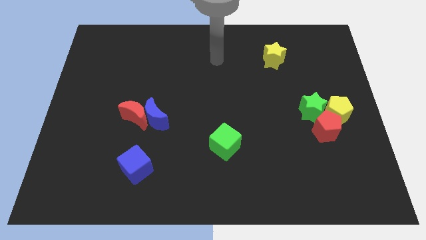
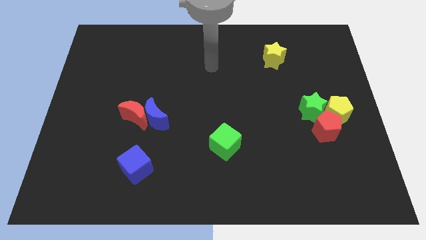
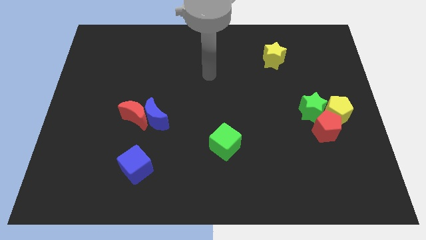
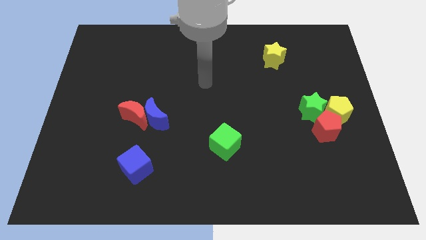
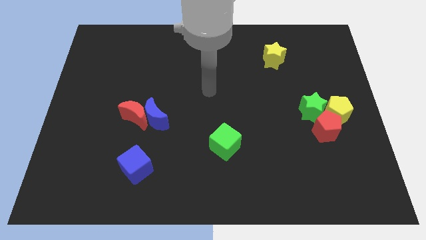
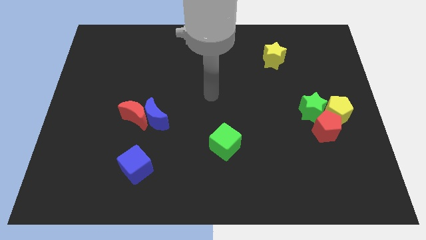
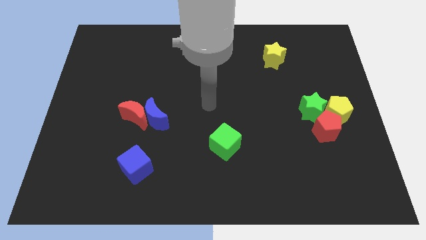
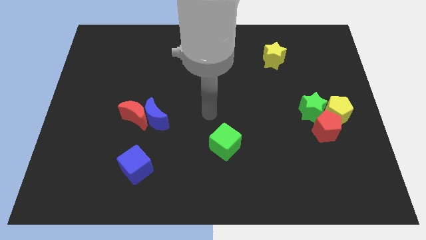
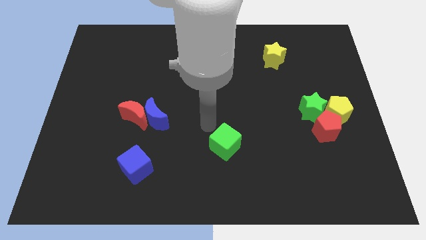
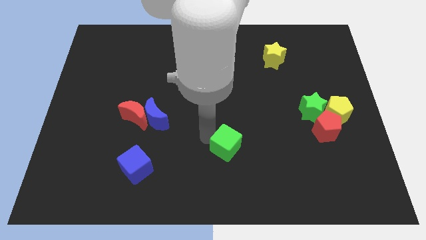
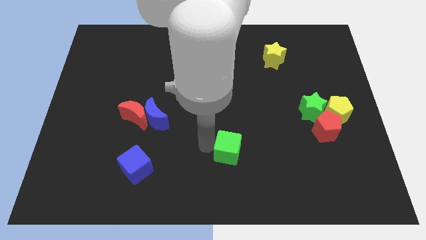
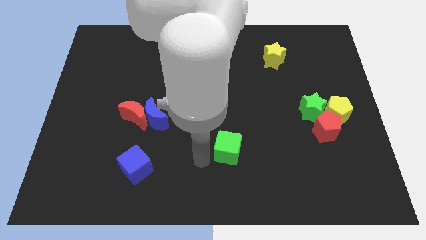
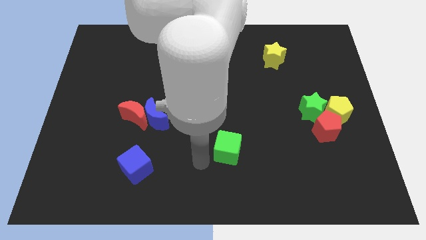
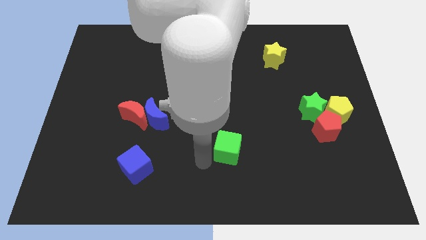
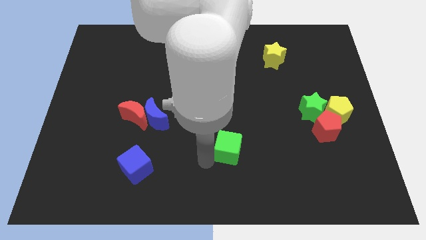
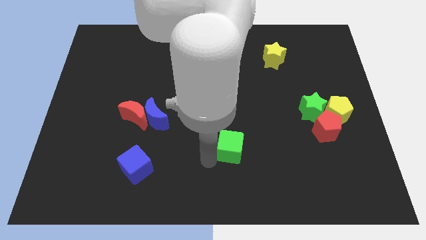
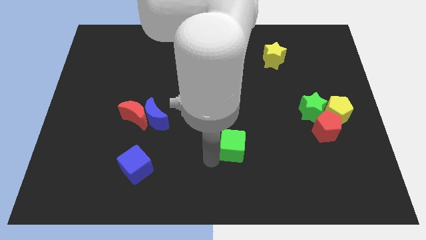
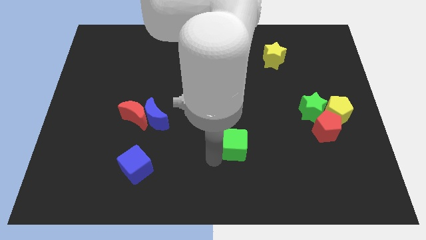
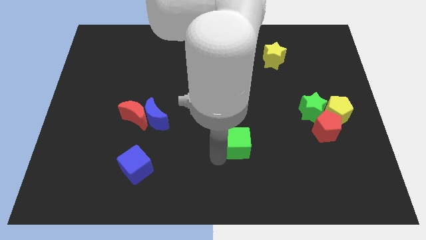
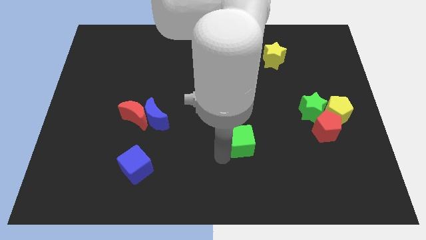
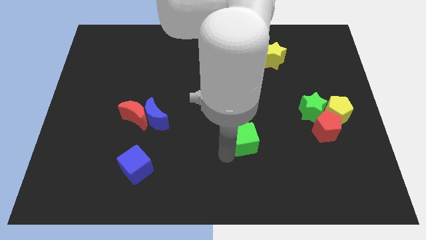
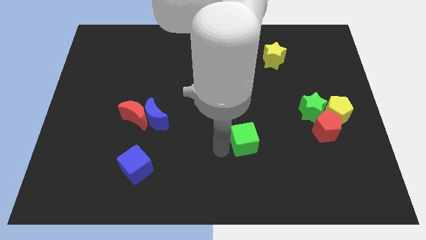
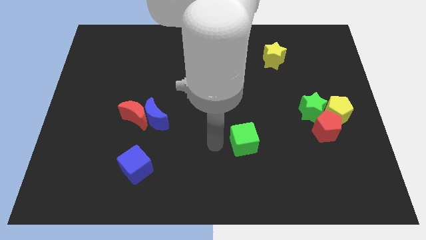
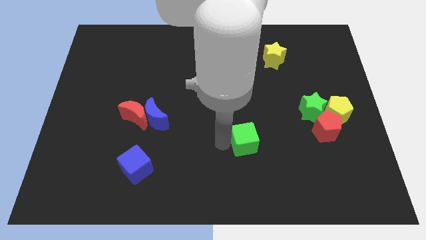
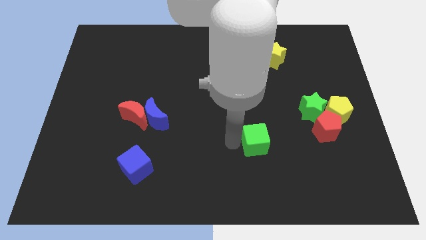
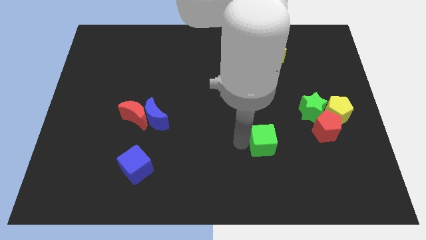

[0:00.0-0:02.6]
push the green cube a little right

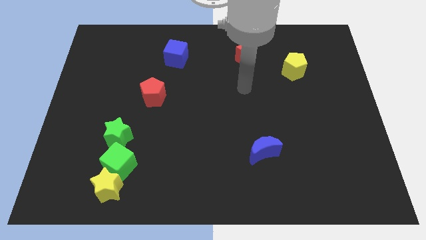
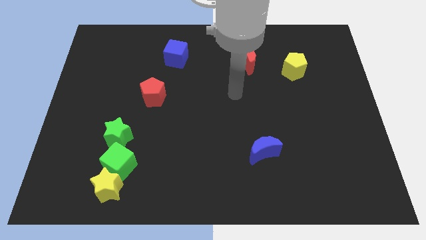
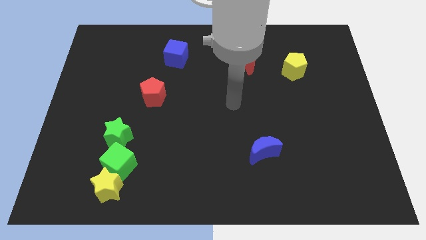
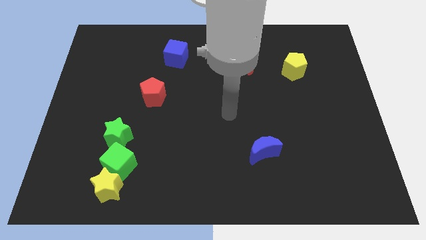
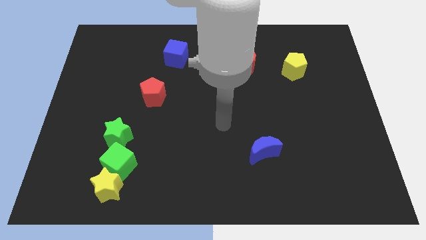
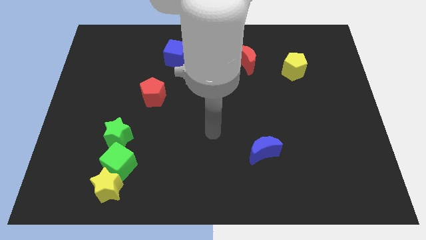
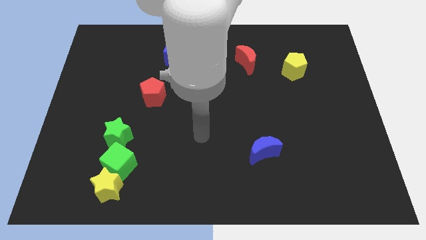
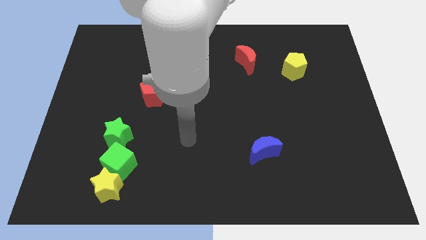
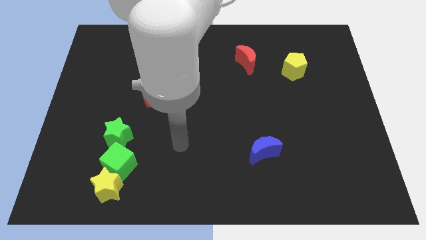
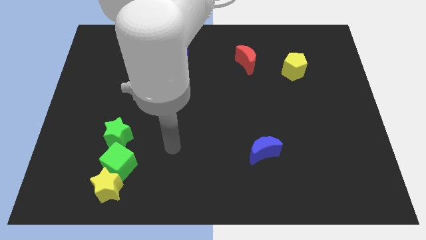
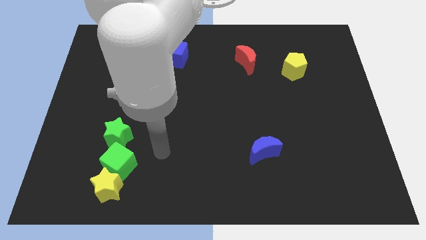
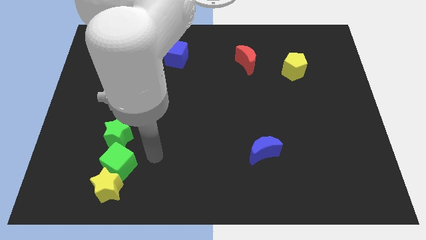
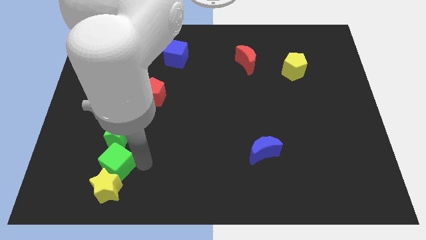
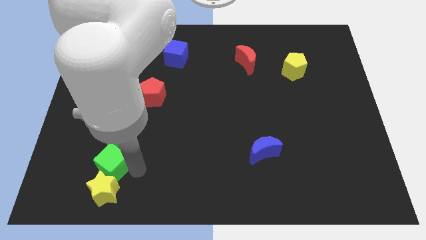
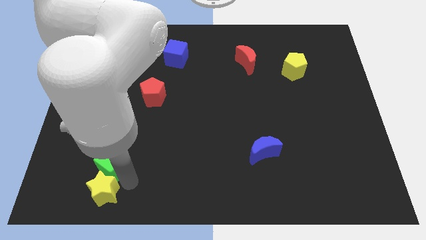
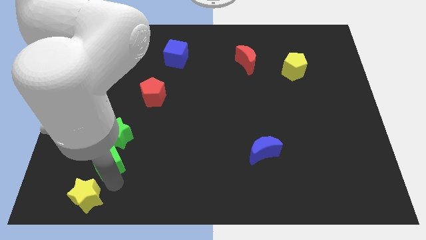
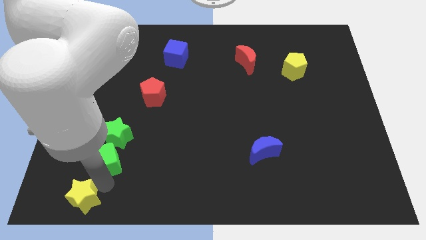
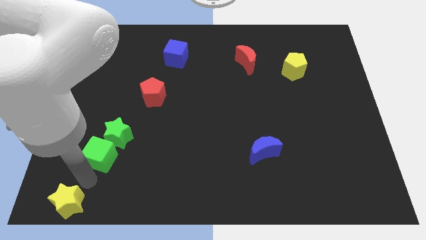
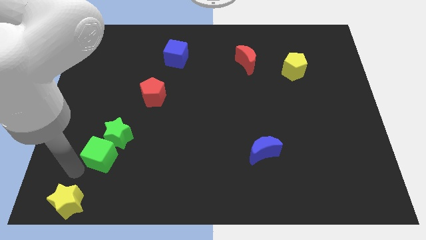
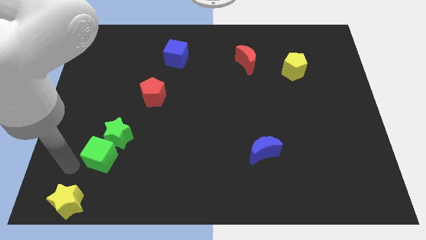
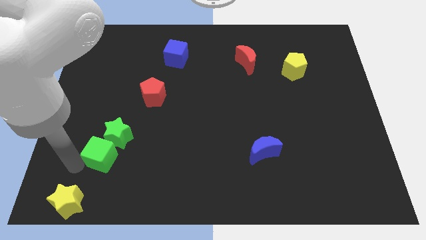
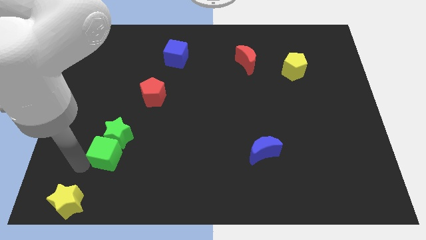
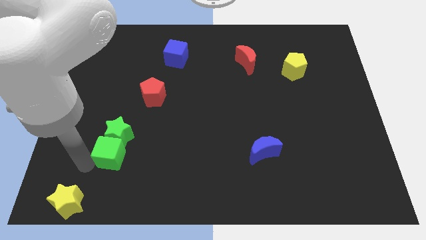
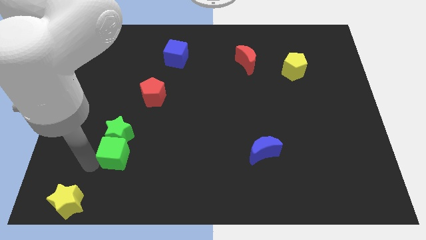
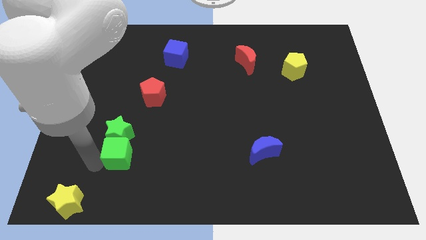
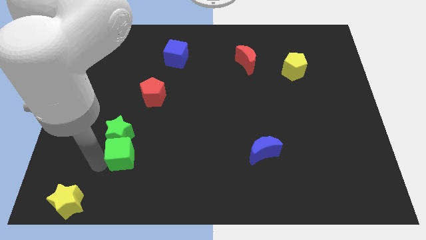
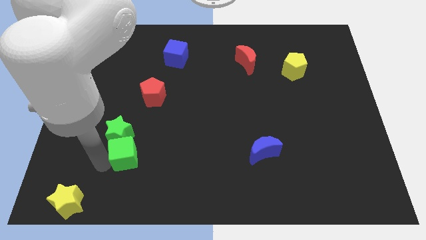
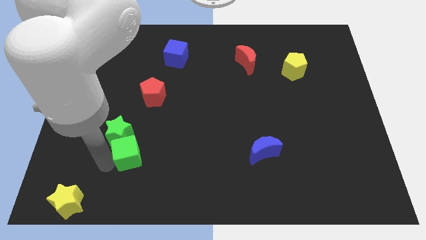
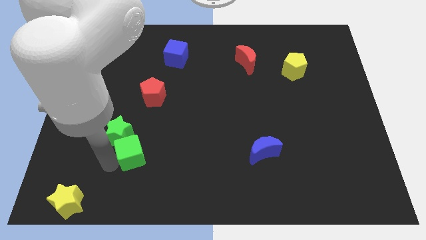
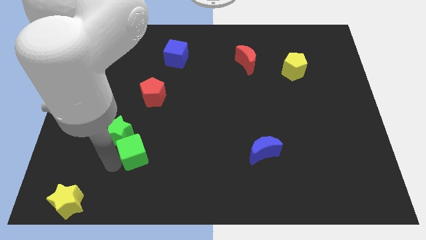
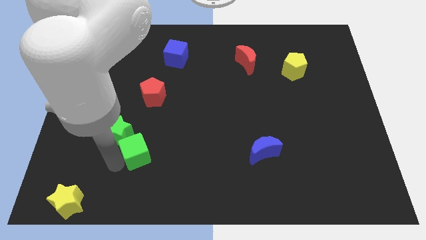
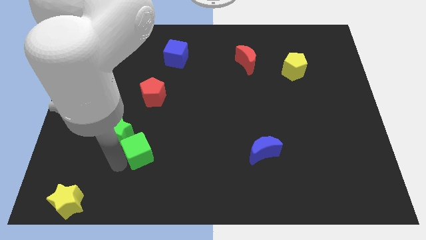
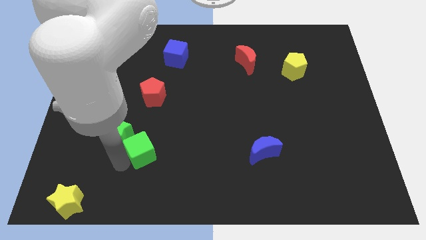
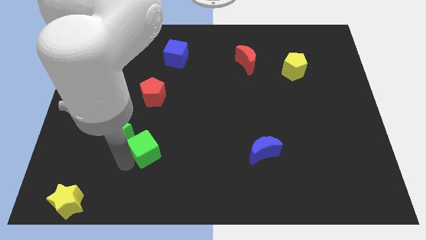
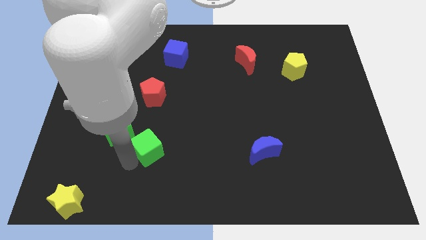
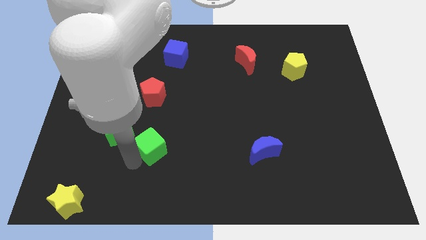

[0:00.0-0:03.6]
slightly slide the green cube upwards and right diagonally

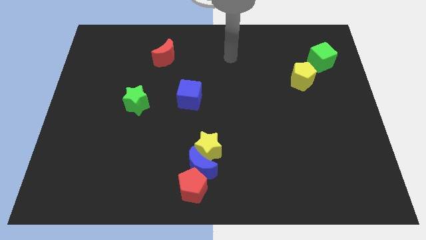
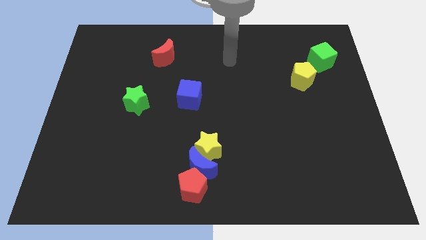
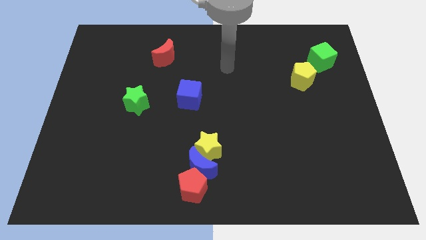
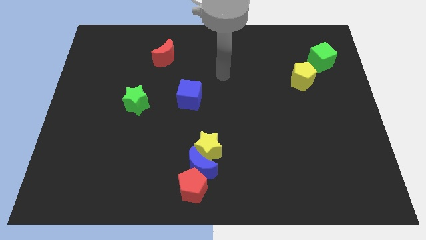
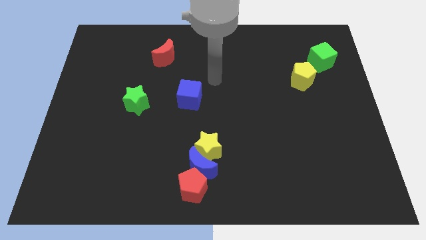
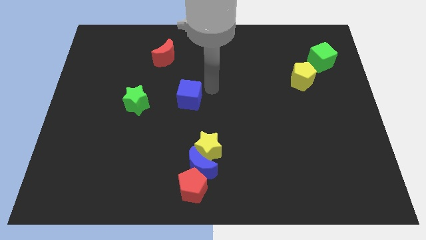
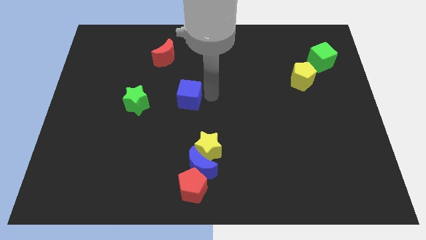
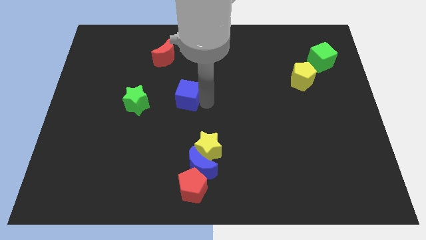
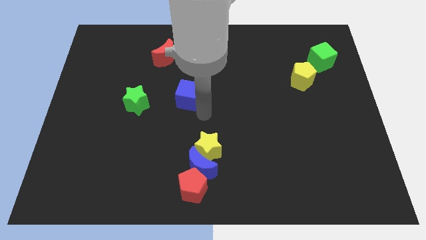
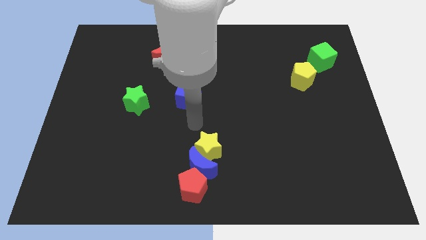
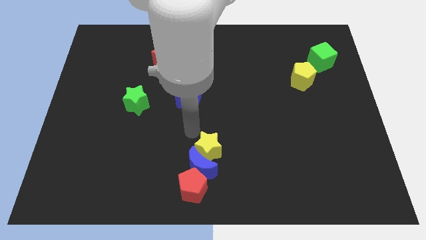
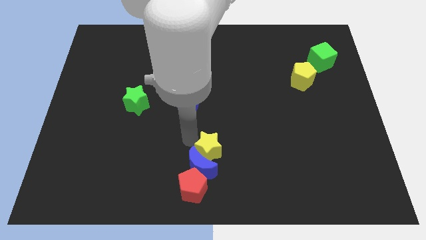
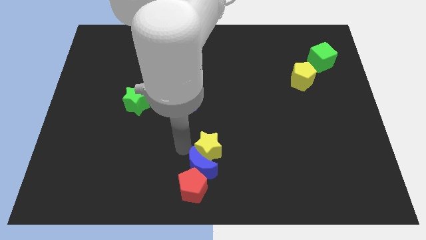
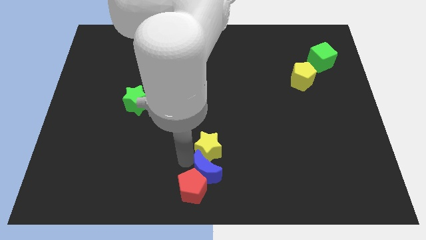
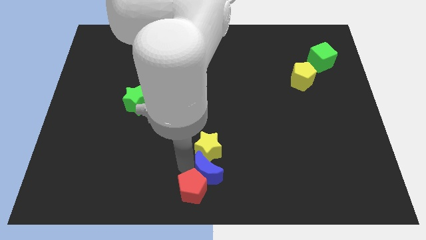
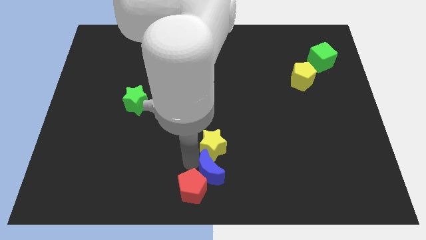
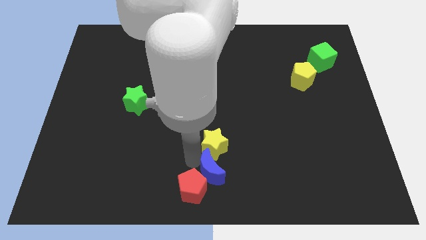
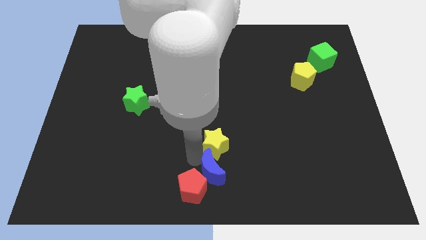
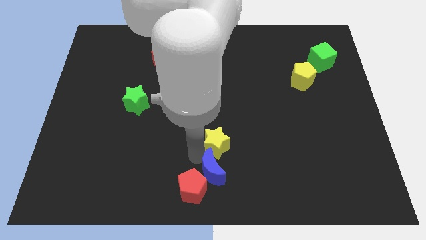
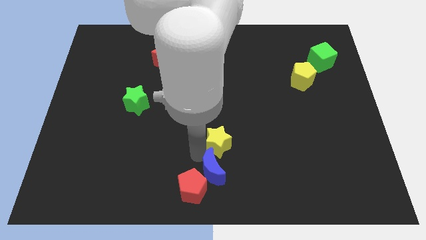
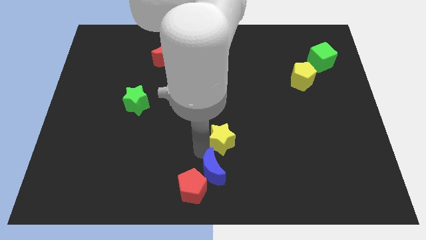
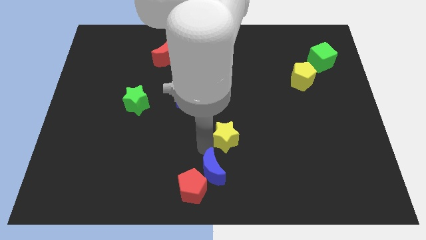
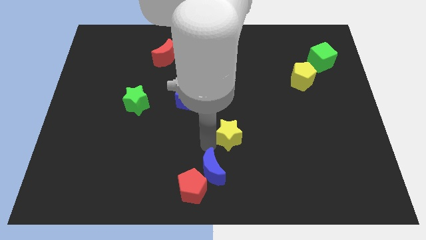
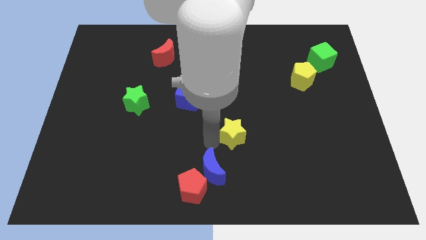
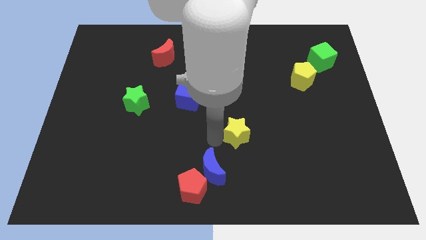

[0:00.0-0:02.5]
slide the yellow star a little upwards and then right
